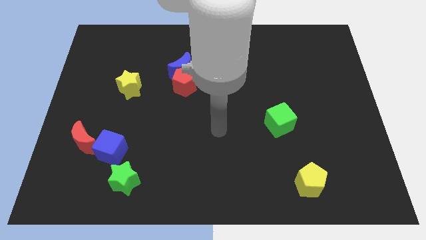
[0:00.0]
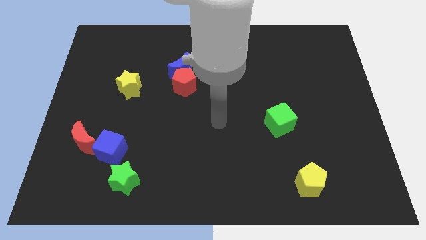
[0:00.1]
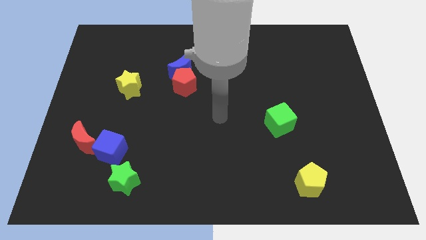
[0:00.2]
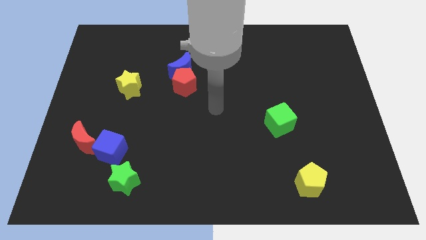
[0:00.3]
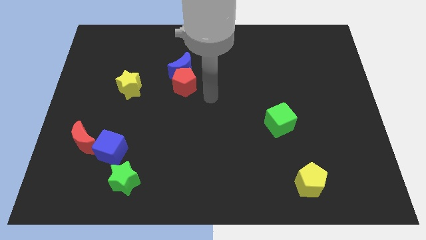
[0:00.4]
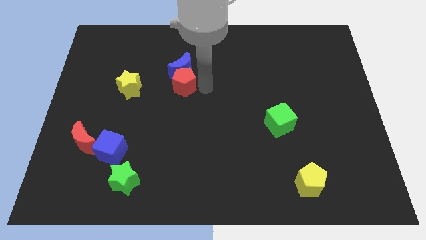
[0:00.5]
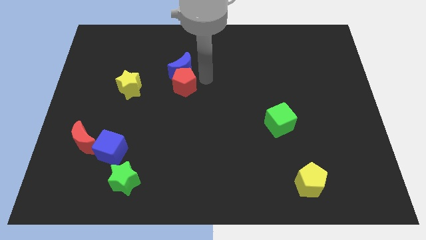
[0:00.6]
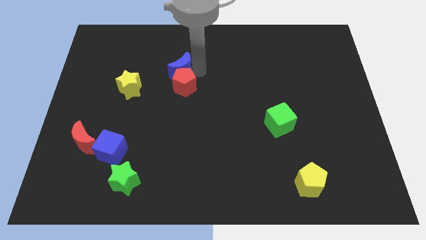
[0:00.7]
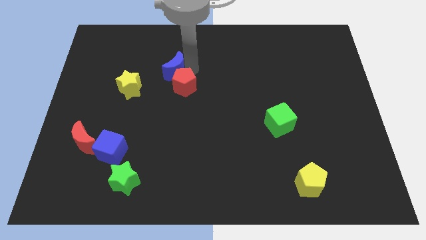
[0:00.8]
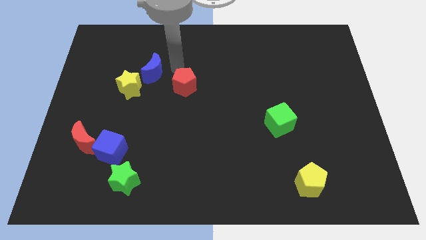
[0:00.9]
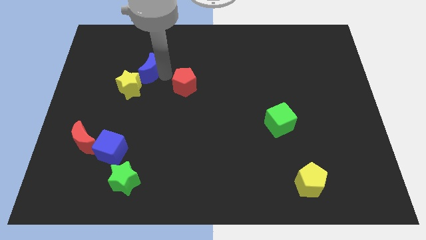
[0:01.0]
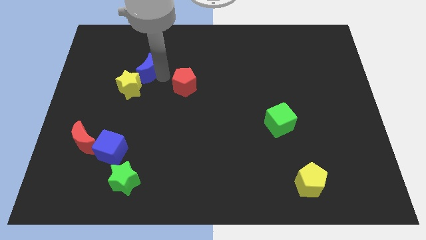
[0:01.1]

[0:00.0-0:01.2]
separate the red pentagon from the blue moon

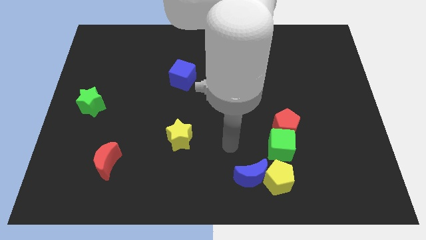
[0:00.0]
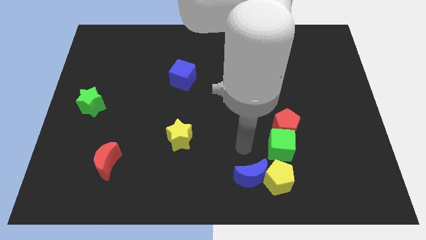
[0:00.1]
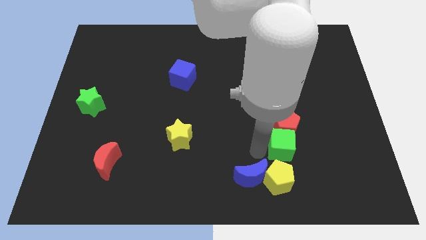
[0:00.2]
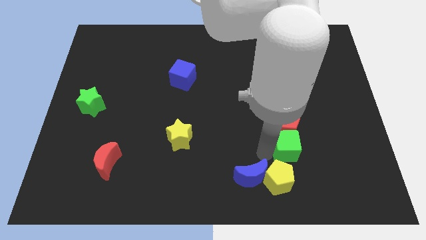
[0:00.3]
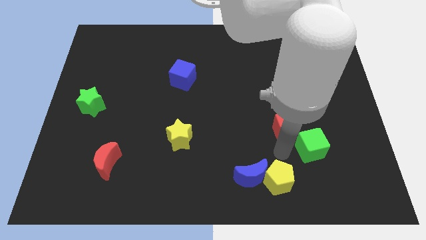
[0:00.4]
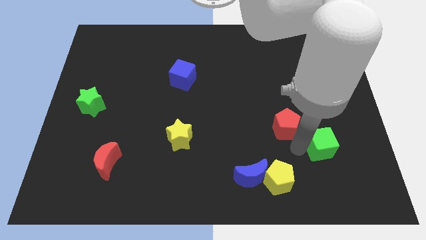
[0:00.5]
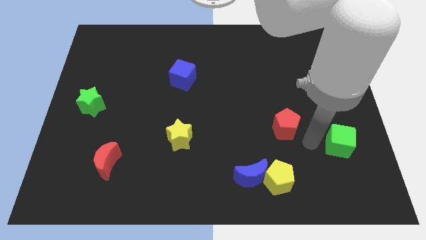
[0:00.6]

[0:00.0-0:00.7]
pull the red pentagon apart from the green cube

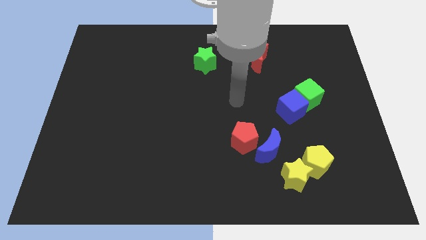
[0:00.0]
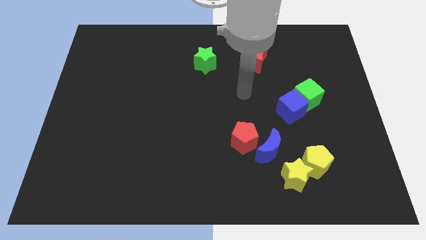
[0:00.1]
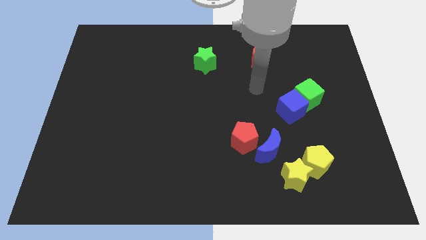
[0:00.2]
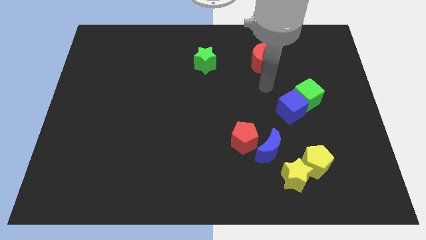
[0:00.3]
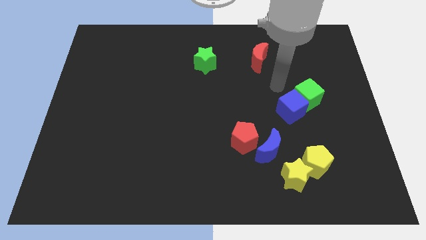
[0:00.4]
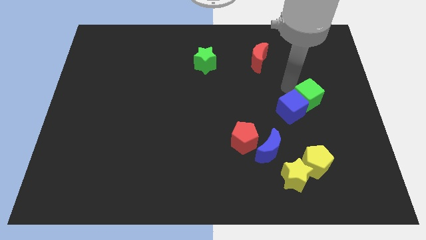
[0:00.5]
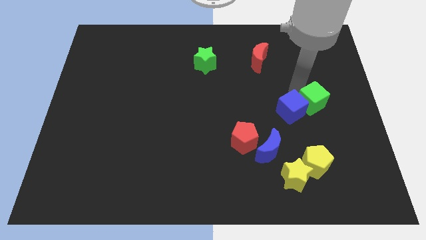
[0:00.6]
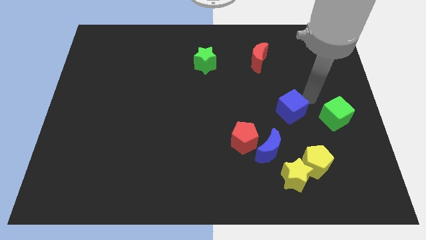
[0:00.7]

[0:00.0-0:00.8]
move the blue cube away from the green cube

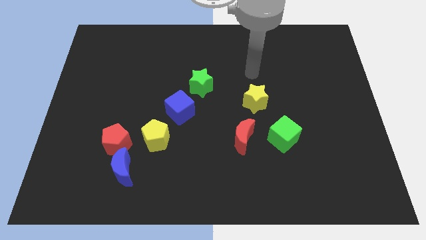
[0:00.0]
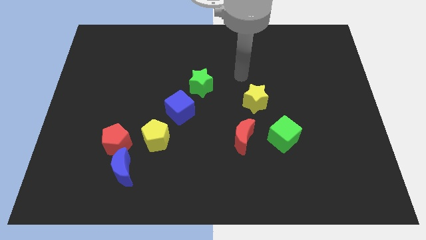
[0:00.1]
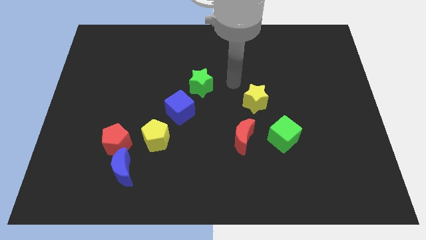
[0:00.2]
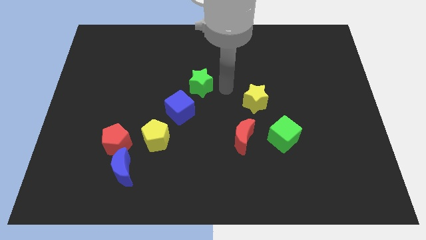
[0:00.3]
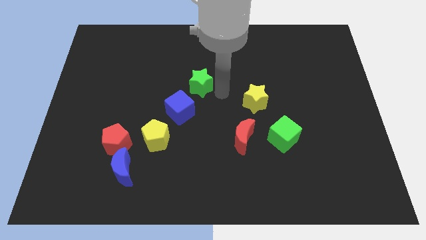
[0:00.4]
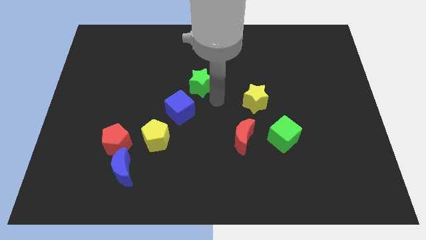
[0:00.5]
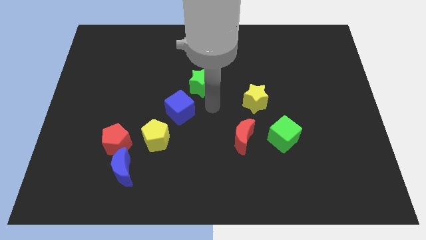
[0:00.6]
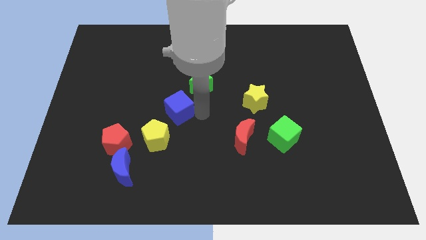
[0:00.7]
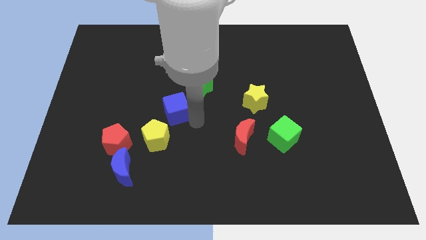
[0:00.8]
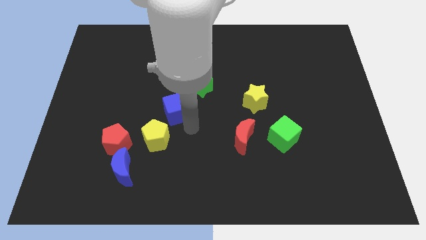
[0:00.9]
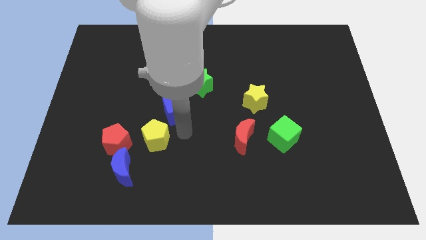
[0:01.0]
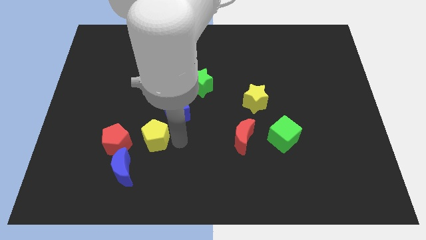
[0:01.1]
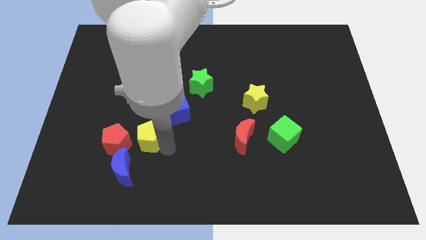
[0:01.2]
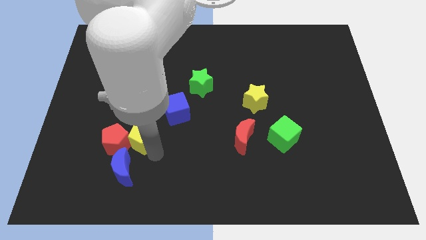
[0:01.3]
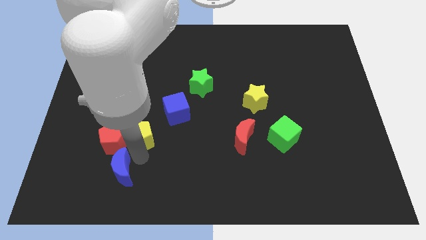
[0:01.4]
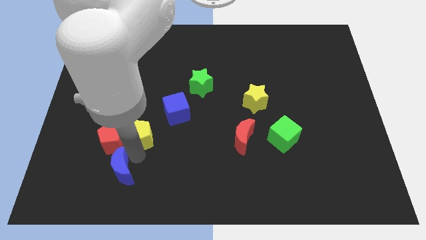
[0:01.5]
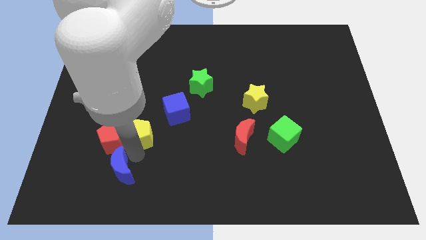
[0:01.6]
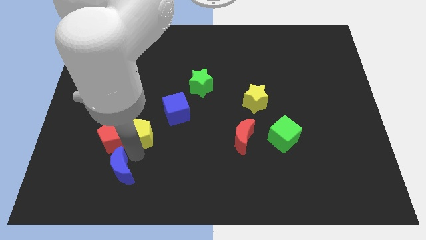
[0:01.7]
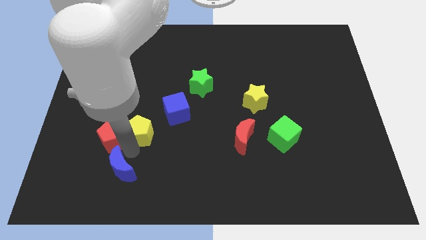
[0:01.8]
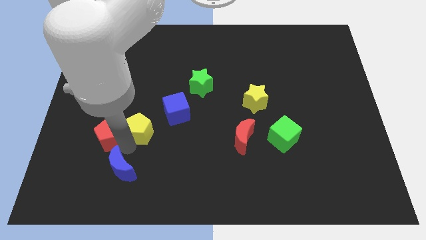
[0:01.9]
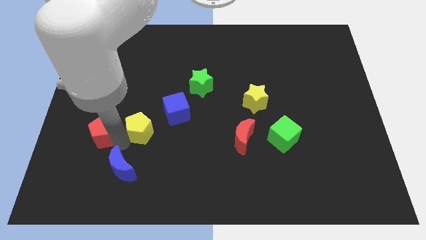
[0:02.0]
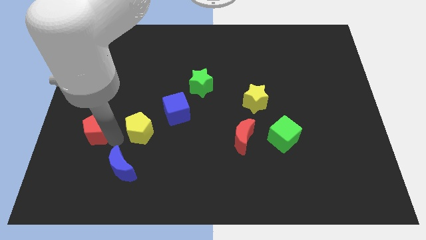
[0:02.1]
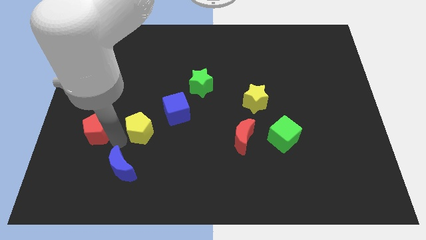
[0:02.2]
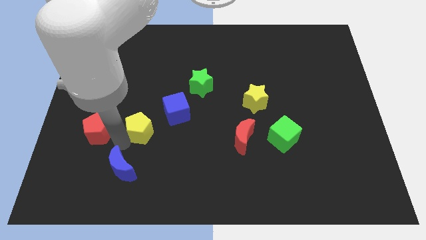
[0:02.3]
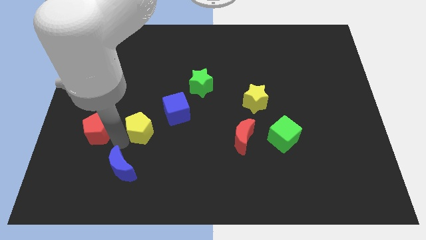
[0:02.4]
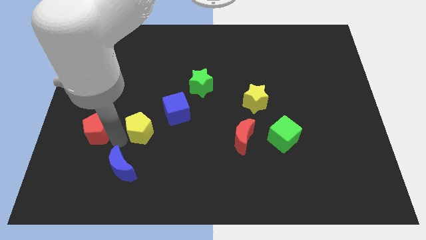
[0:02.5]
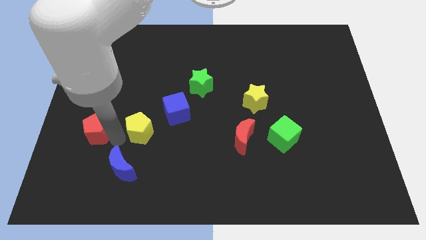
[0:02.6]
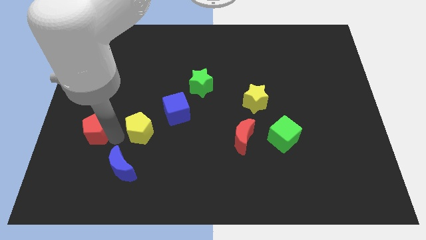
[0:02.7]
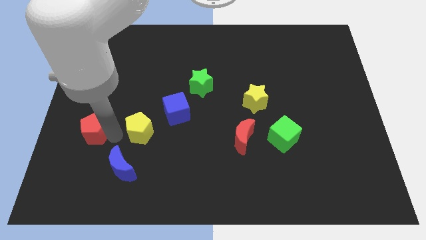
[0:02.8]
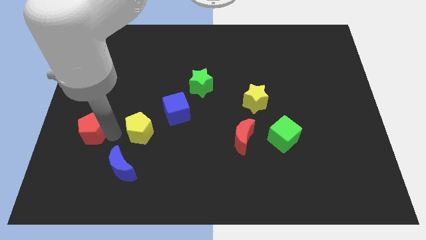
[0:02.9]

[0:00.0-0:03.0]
move the red pentagon away from the blue moon and yellow pentagon

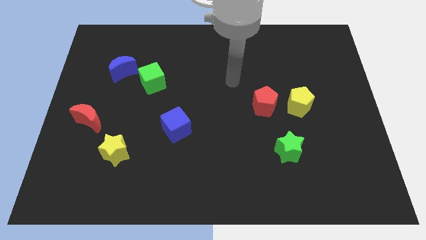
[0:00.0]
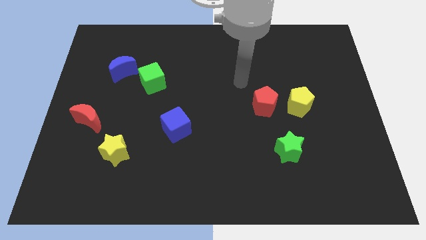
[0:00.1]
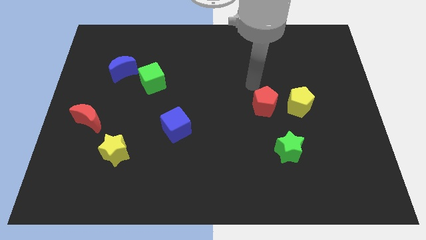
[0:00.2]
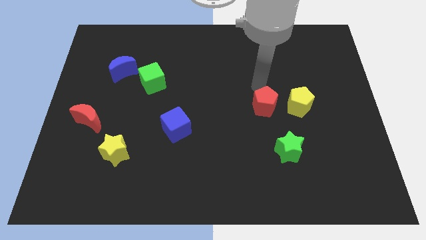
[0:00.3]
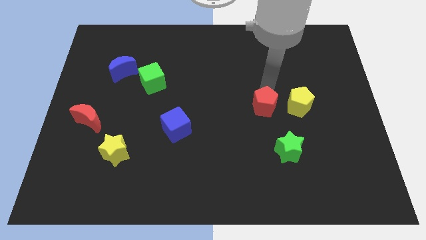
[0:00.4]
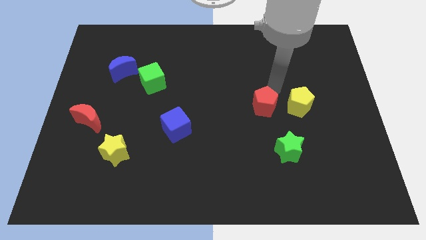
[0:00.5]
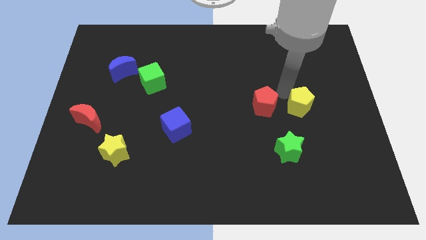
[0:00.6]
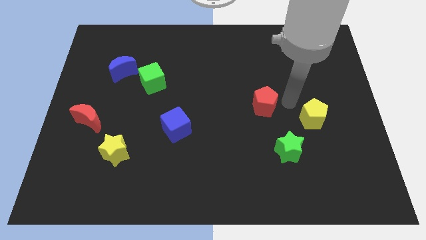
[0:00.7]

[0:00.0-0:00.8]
move the red pentagon away from the yellow pentagon

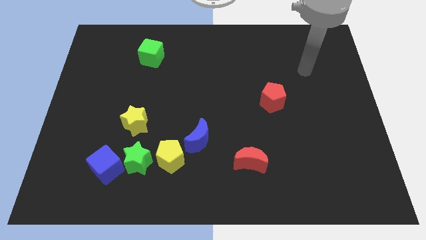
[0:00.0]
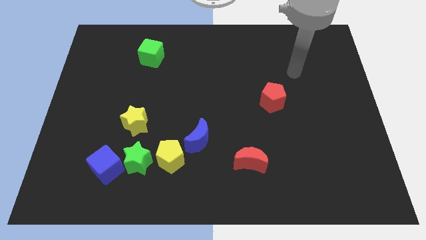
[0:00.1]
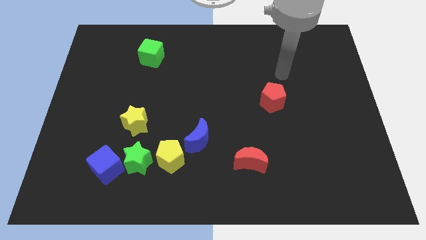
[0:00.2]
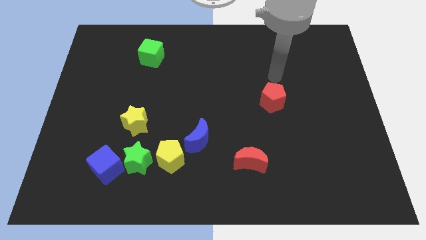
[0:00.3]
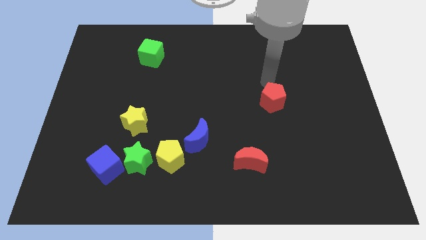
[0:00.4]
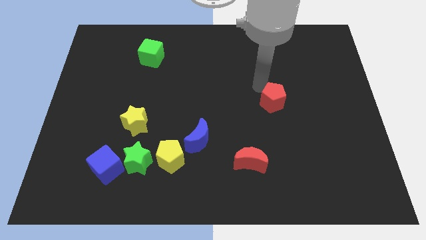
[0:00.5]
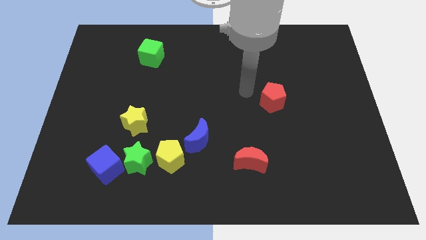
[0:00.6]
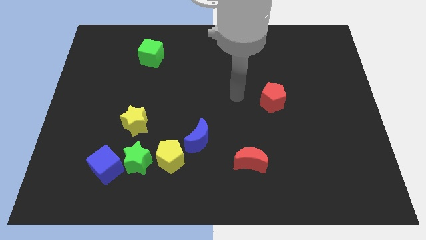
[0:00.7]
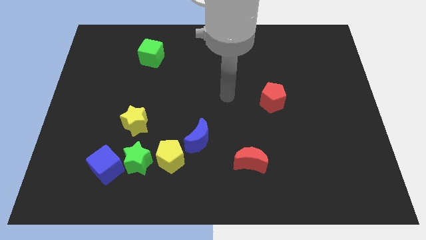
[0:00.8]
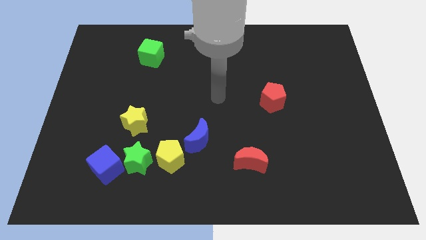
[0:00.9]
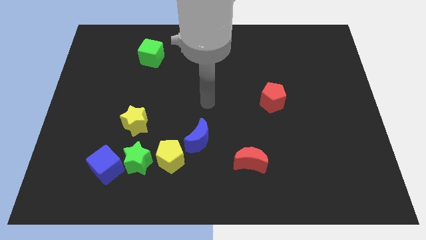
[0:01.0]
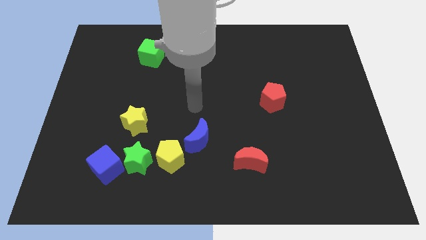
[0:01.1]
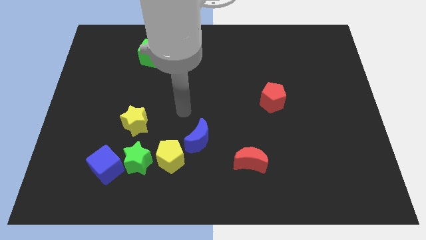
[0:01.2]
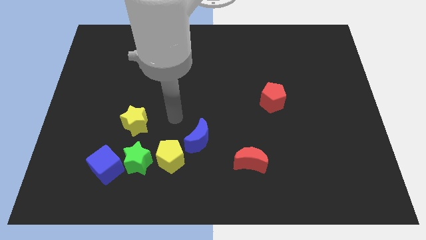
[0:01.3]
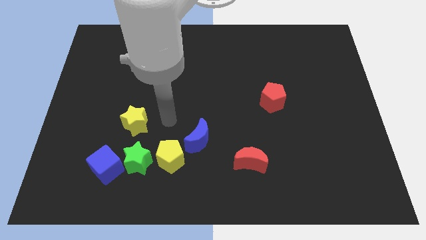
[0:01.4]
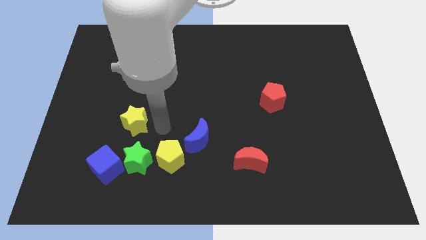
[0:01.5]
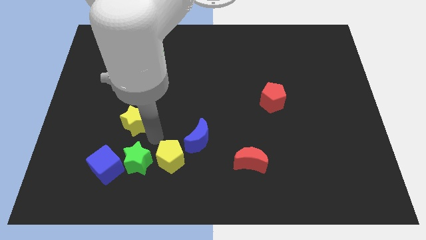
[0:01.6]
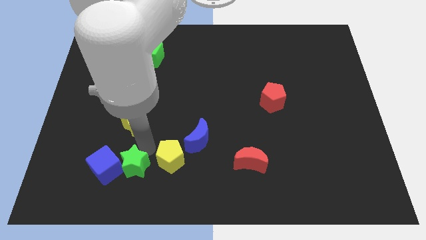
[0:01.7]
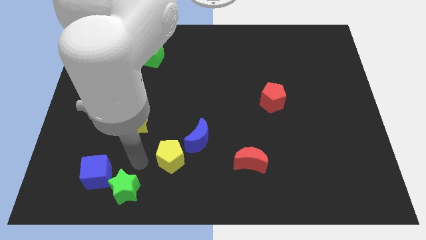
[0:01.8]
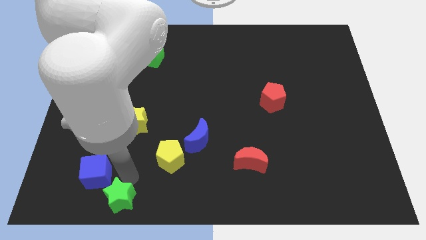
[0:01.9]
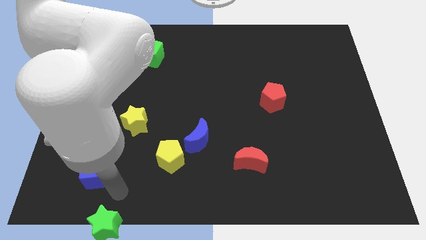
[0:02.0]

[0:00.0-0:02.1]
move the blue cube away from the green star

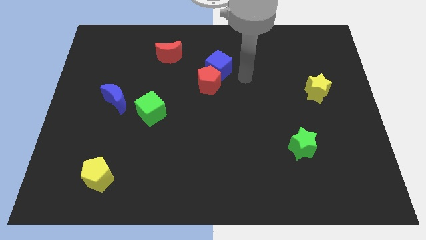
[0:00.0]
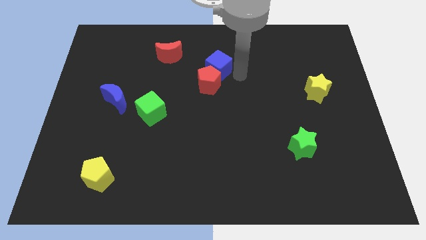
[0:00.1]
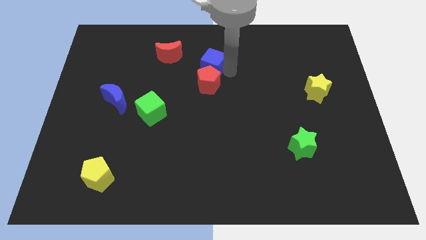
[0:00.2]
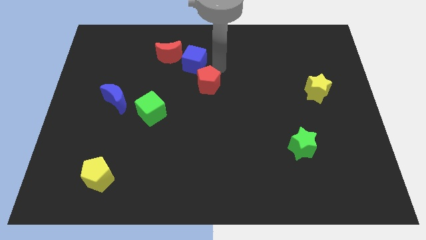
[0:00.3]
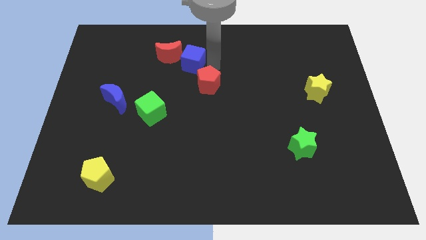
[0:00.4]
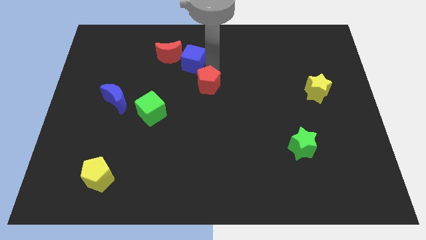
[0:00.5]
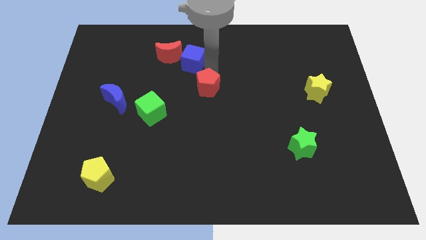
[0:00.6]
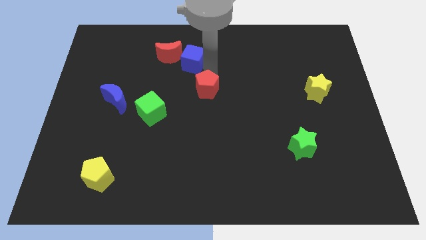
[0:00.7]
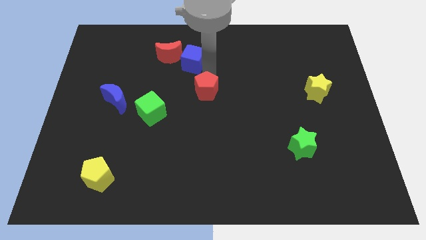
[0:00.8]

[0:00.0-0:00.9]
separate the red pentagon from the blue cube

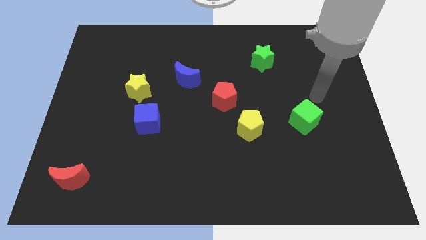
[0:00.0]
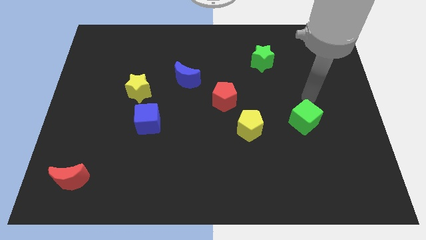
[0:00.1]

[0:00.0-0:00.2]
separate the red pentagon from the yellow pentagon
